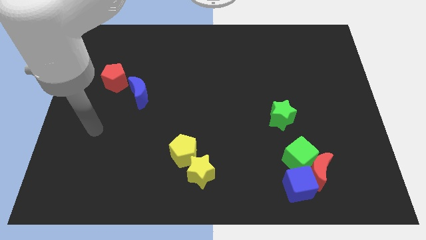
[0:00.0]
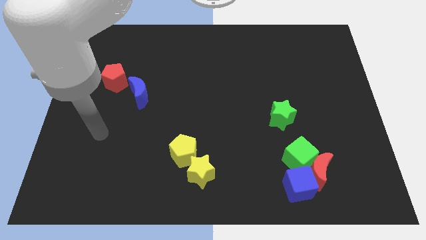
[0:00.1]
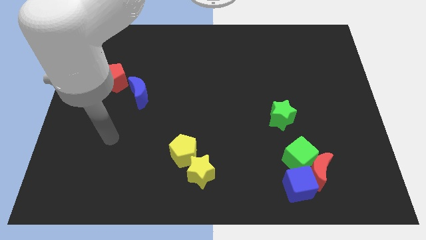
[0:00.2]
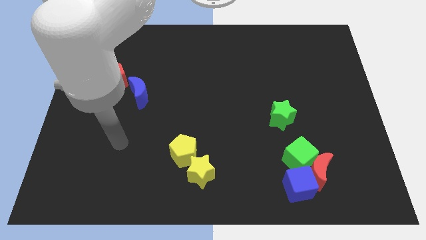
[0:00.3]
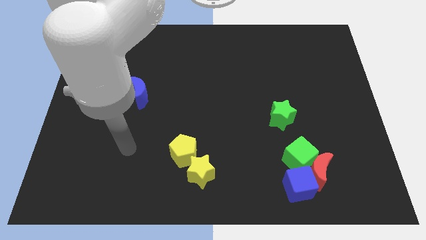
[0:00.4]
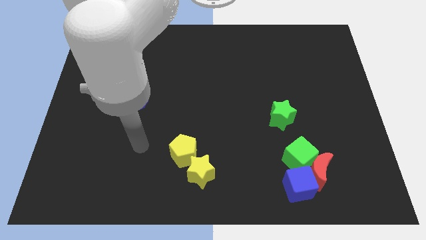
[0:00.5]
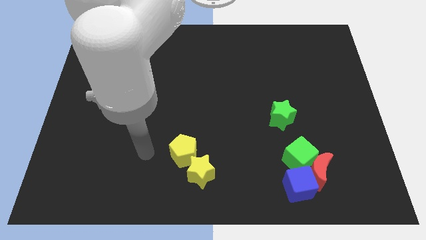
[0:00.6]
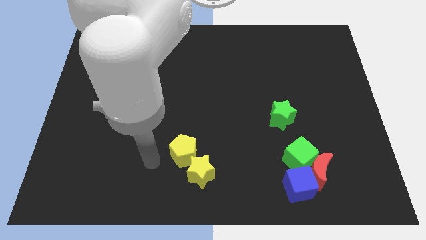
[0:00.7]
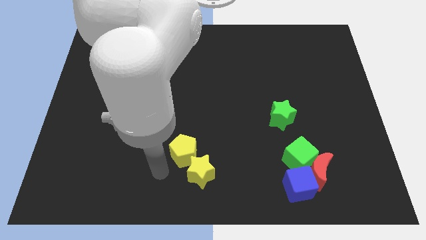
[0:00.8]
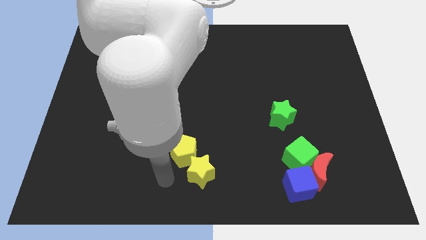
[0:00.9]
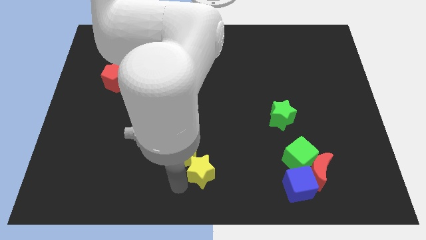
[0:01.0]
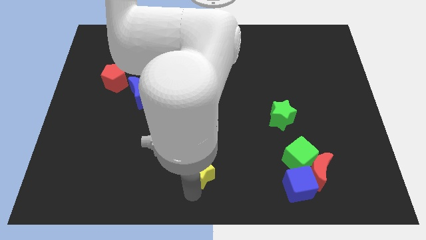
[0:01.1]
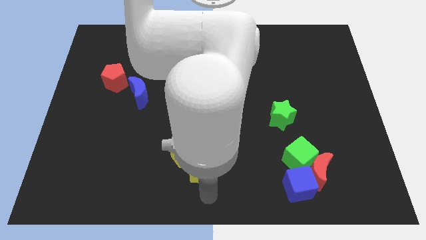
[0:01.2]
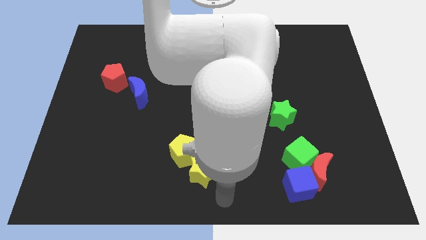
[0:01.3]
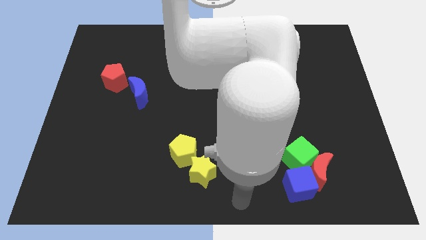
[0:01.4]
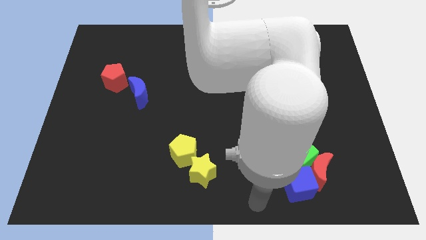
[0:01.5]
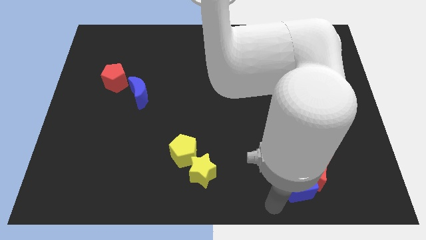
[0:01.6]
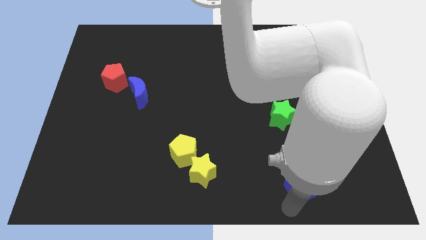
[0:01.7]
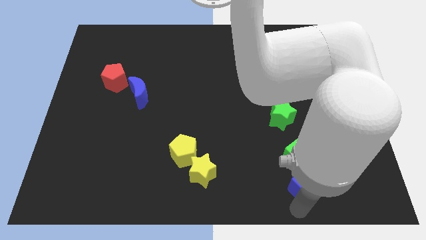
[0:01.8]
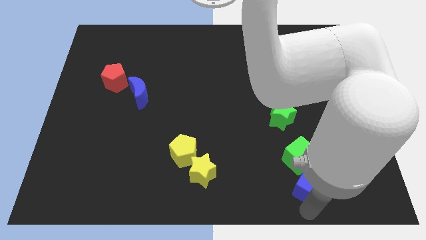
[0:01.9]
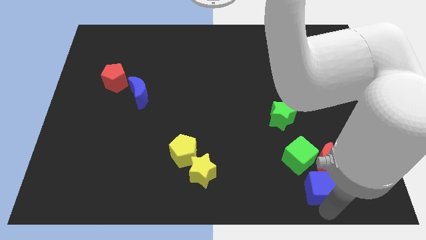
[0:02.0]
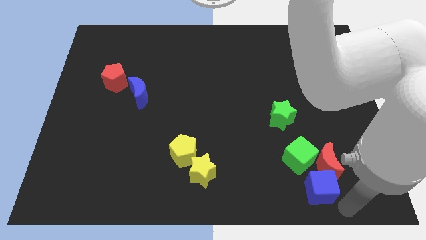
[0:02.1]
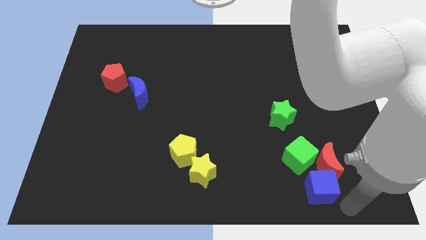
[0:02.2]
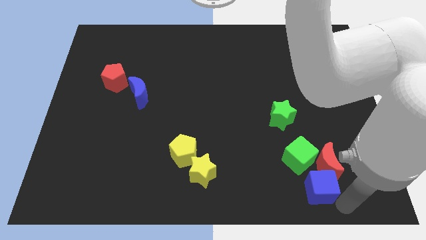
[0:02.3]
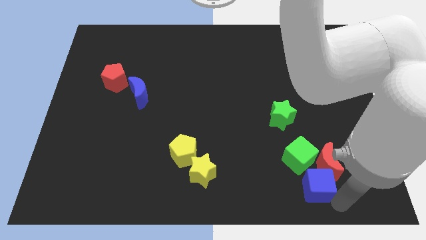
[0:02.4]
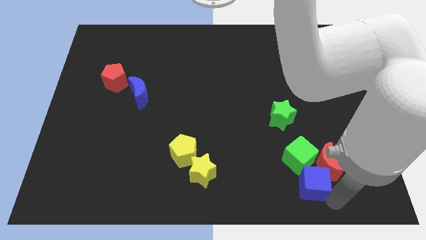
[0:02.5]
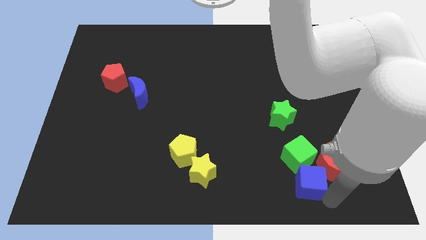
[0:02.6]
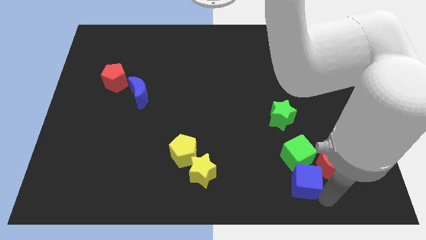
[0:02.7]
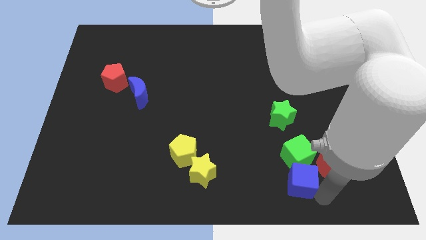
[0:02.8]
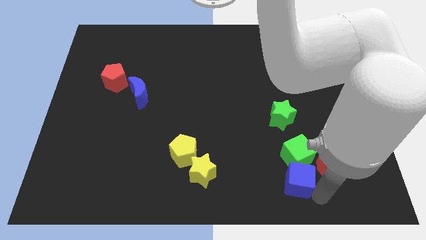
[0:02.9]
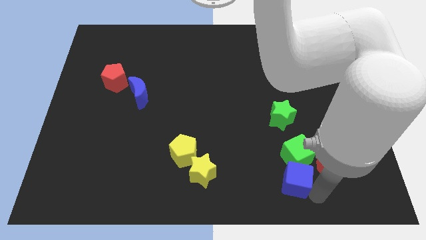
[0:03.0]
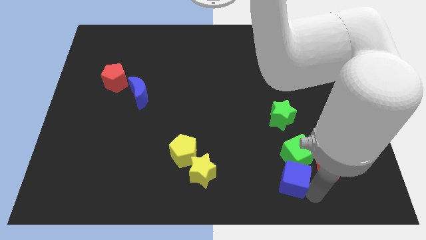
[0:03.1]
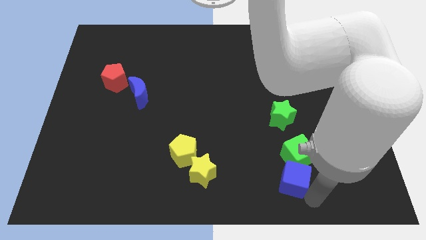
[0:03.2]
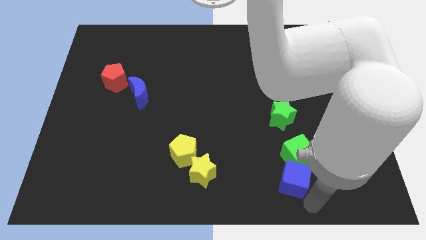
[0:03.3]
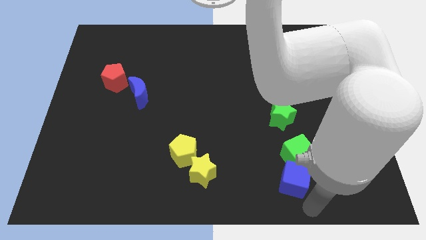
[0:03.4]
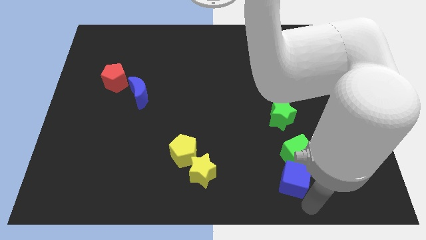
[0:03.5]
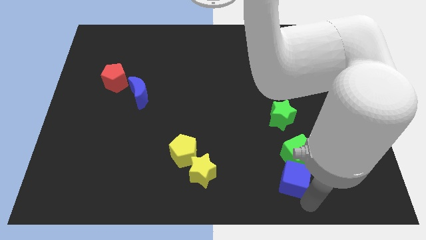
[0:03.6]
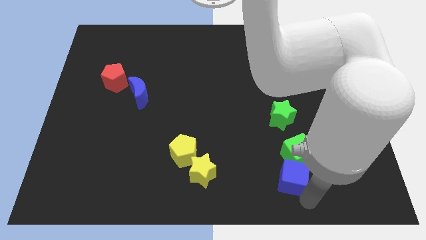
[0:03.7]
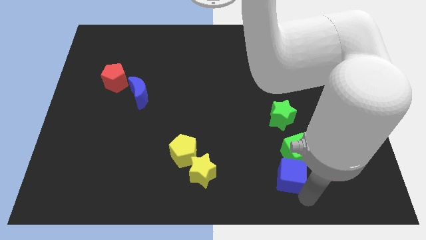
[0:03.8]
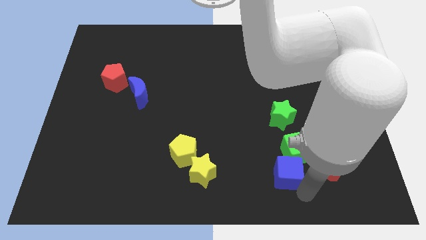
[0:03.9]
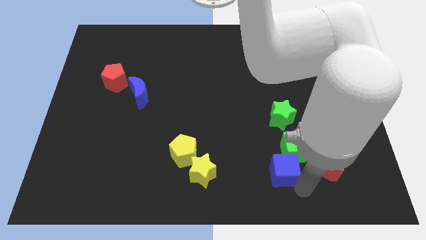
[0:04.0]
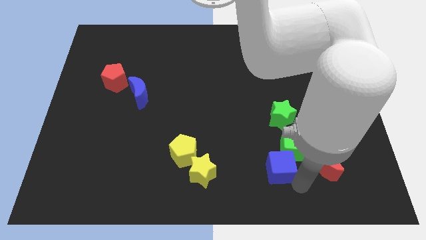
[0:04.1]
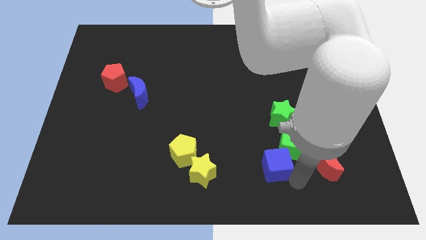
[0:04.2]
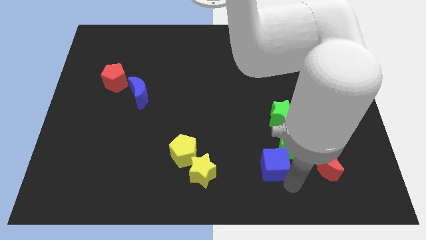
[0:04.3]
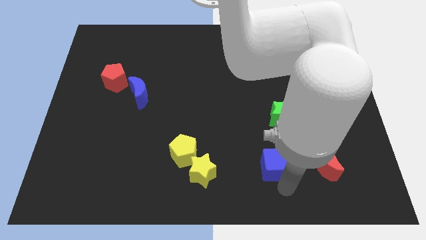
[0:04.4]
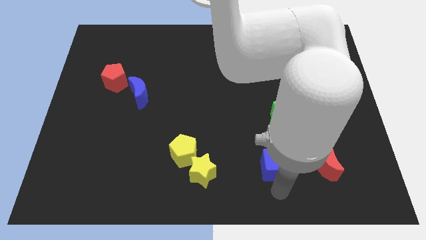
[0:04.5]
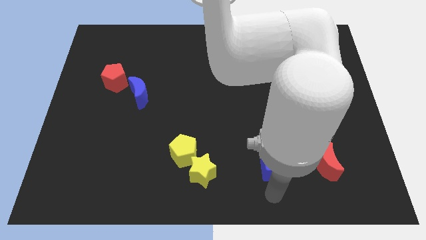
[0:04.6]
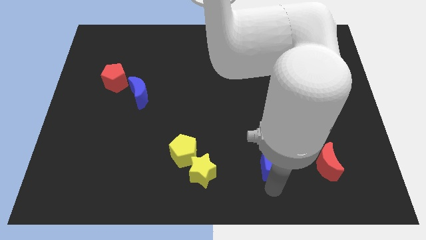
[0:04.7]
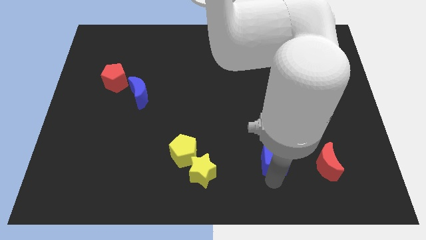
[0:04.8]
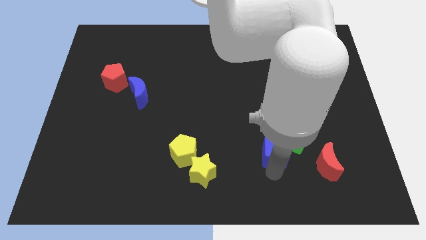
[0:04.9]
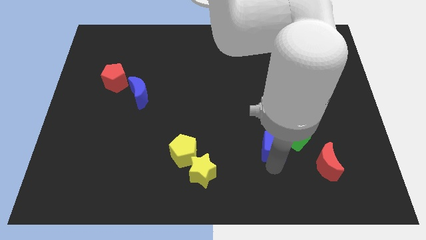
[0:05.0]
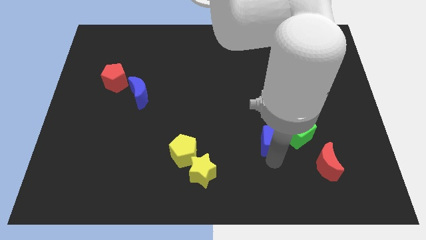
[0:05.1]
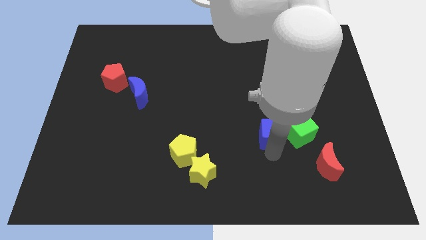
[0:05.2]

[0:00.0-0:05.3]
move the blue cube towards the green star

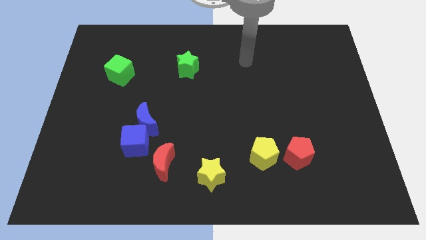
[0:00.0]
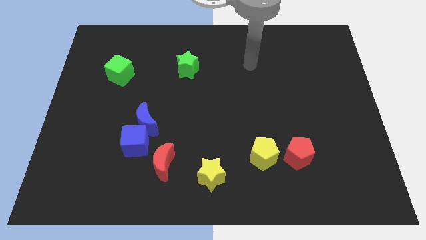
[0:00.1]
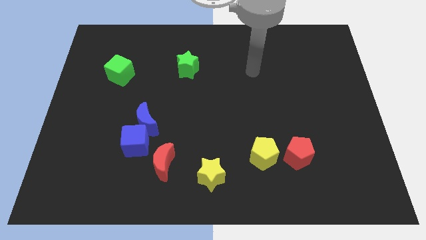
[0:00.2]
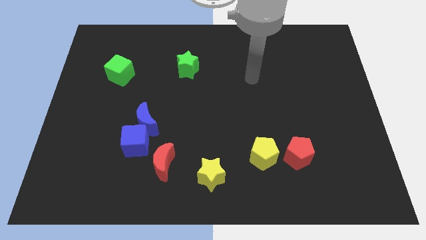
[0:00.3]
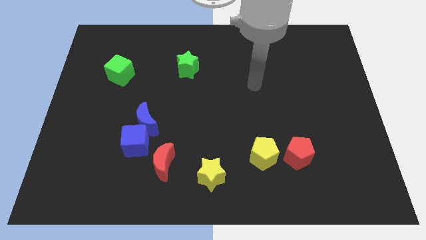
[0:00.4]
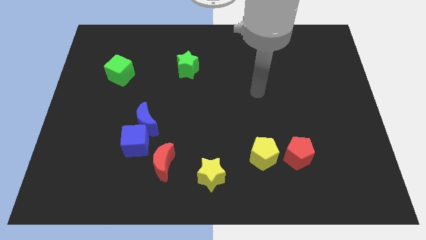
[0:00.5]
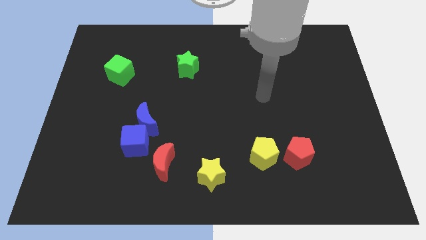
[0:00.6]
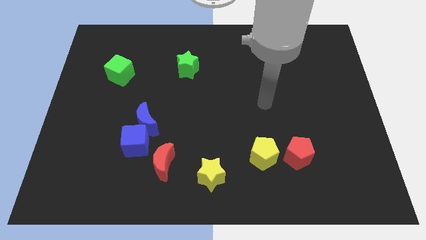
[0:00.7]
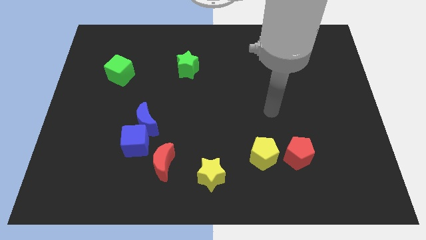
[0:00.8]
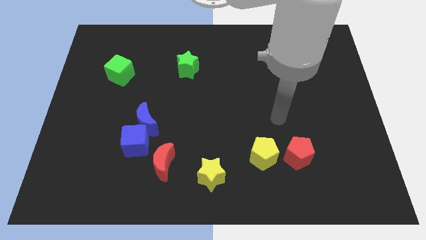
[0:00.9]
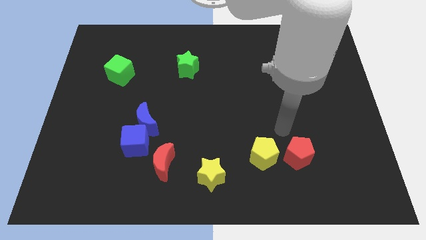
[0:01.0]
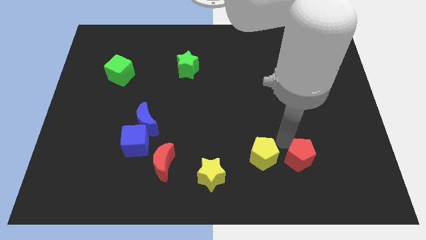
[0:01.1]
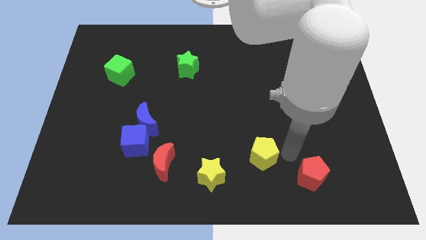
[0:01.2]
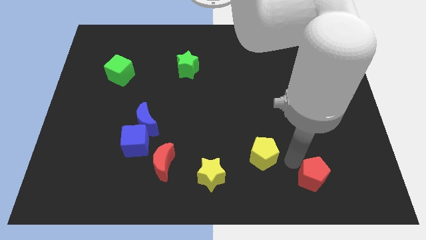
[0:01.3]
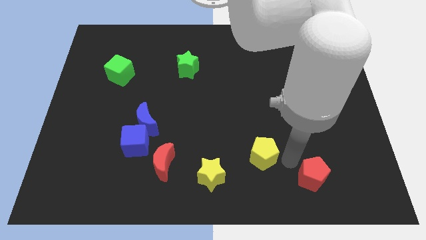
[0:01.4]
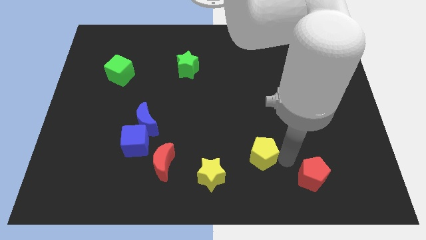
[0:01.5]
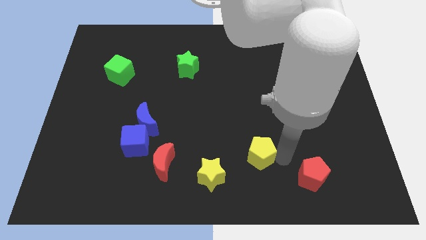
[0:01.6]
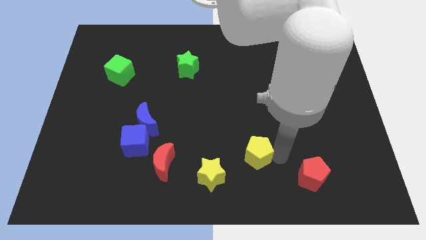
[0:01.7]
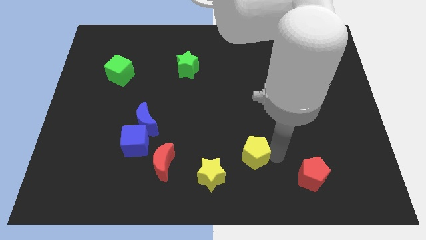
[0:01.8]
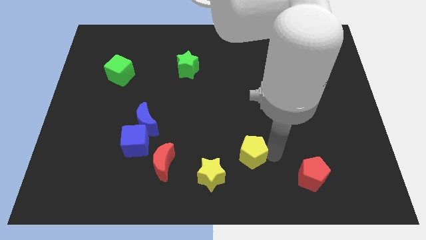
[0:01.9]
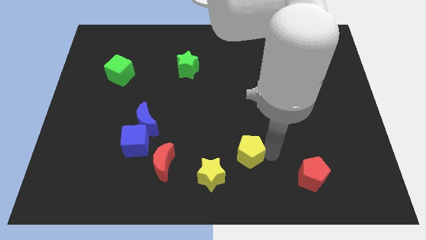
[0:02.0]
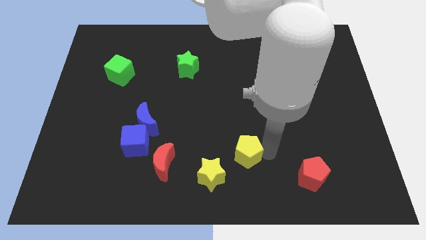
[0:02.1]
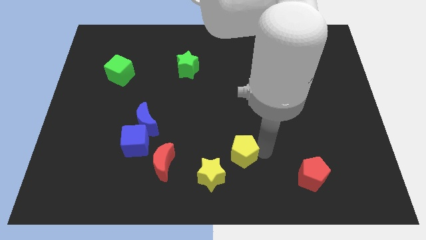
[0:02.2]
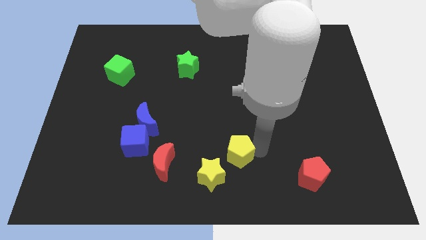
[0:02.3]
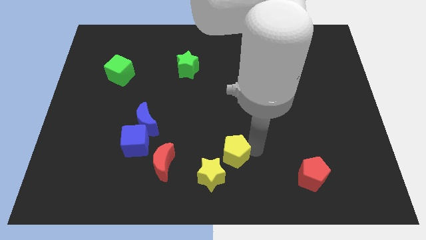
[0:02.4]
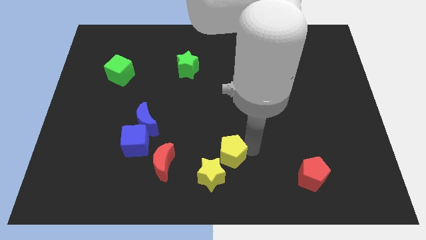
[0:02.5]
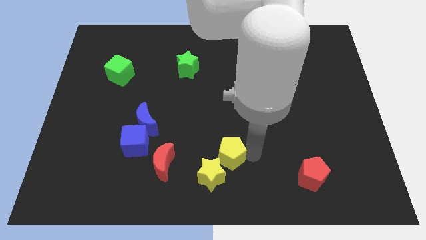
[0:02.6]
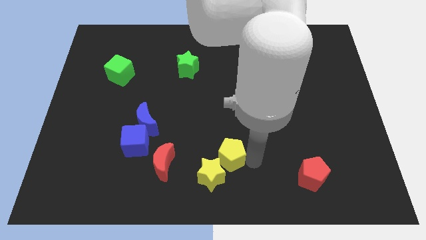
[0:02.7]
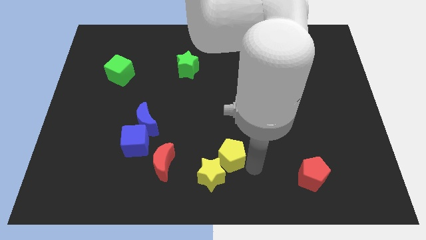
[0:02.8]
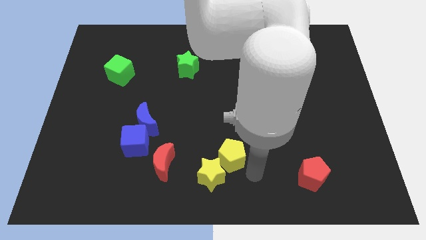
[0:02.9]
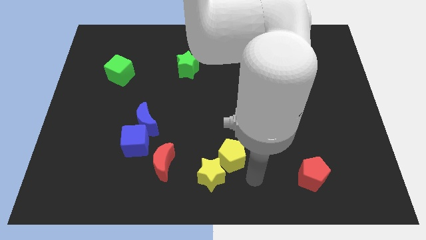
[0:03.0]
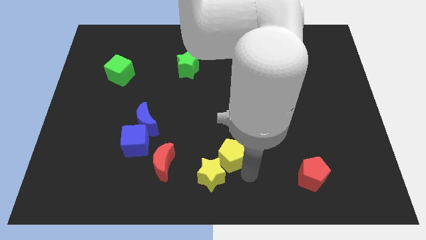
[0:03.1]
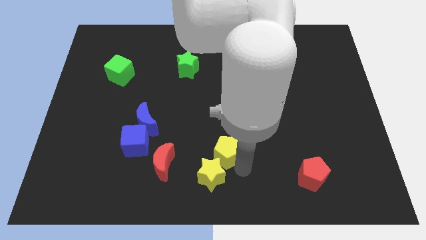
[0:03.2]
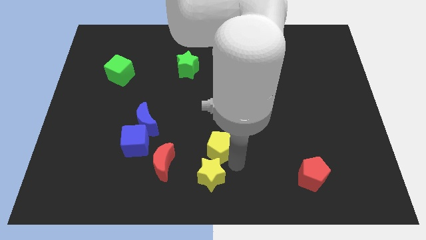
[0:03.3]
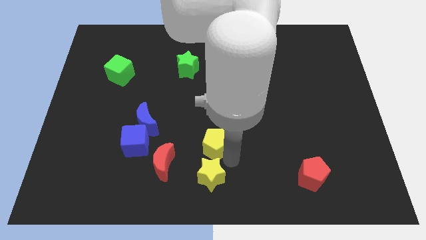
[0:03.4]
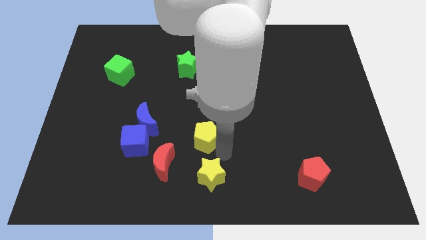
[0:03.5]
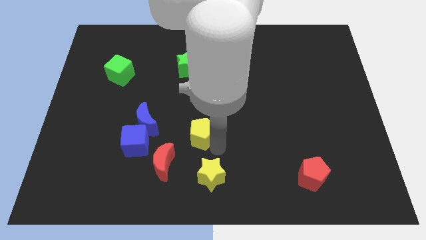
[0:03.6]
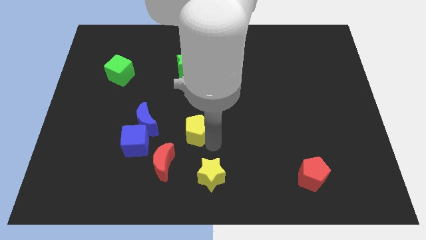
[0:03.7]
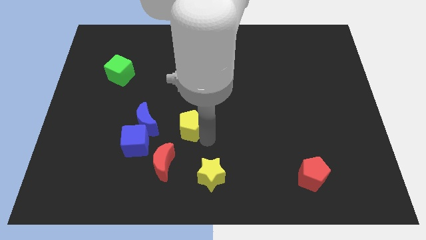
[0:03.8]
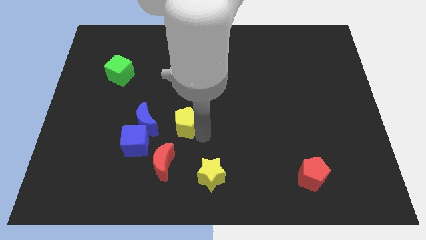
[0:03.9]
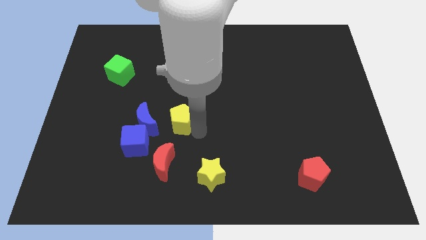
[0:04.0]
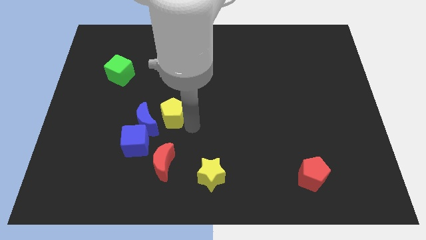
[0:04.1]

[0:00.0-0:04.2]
move the yellow pentagon to the blue moon
